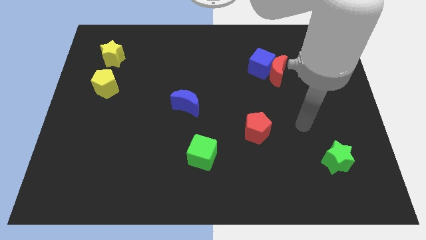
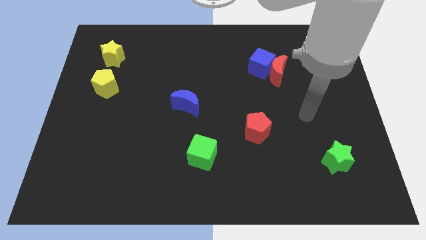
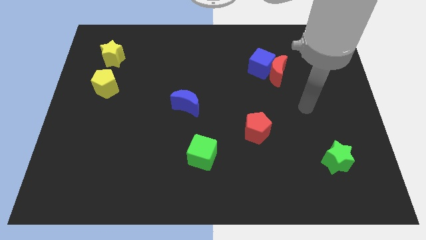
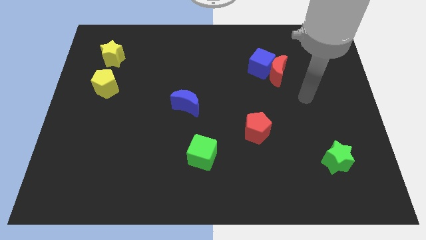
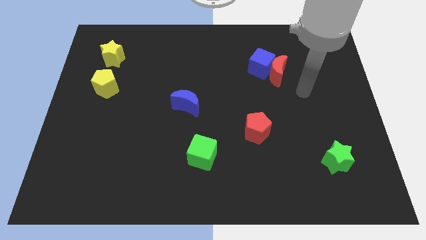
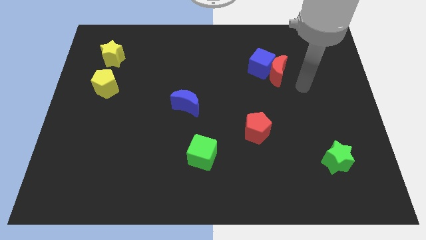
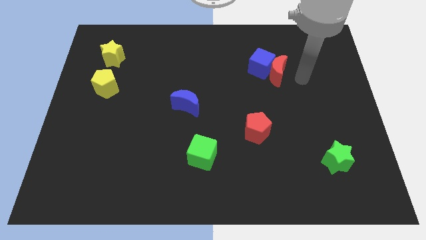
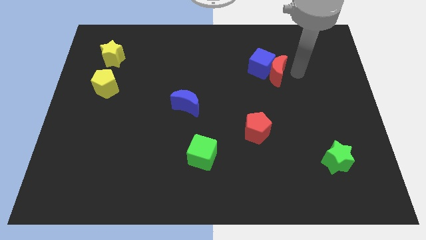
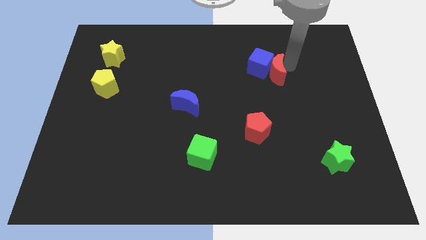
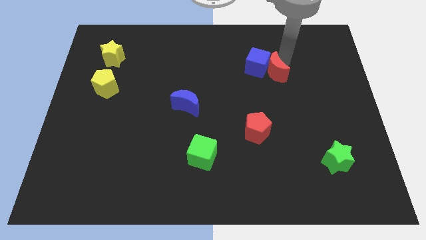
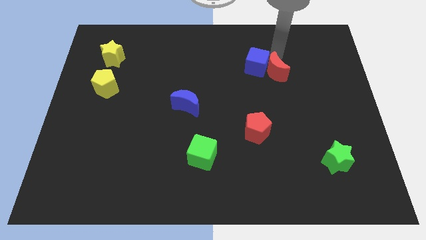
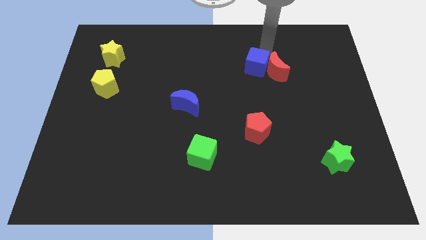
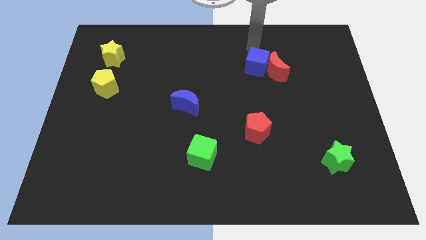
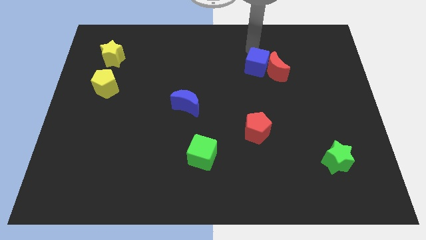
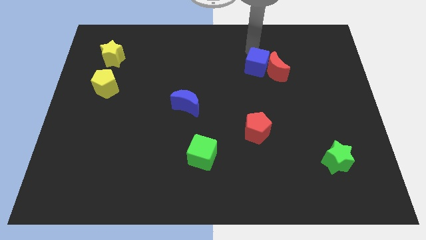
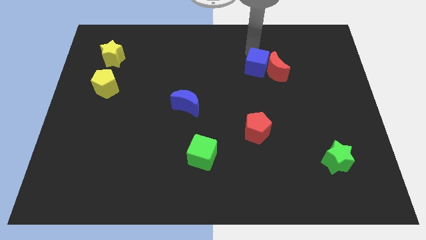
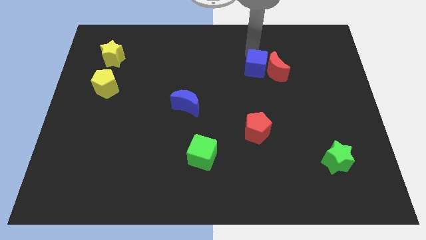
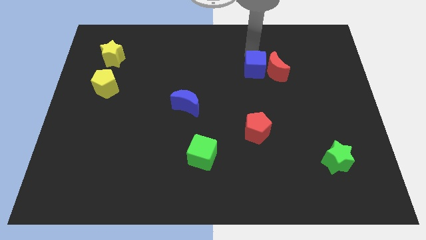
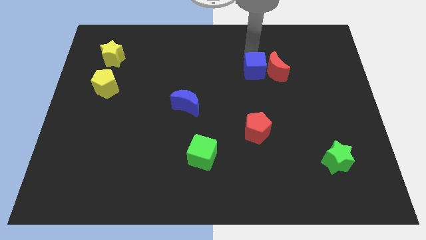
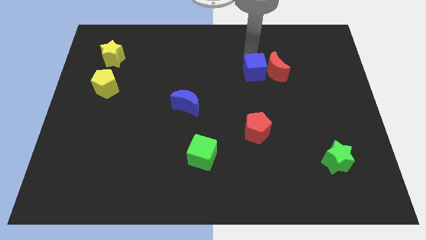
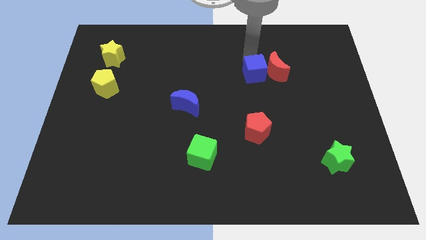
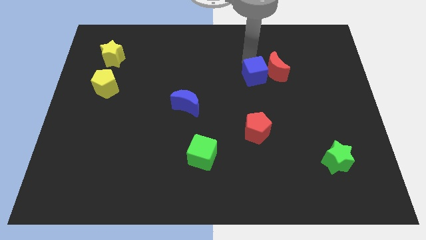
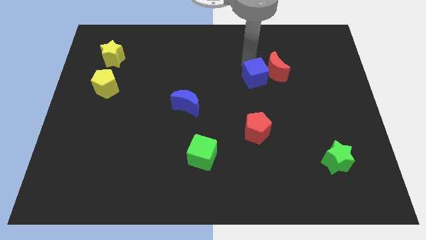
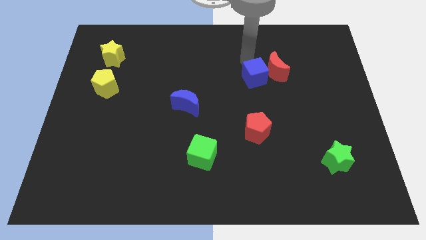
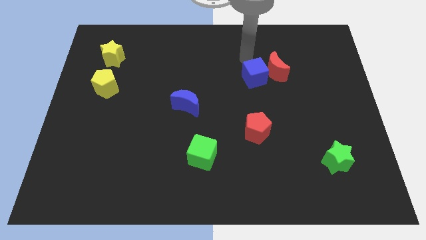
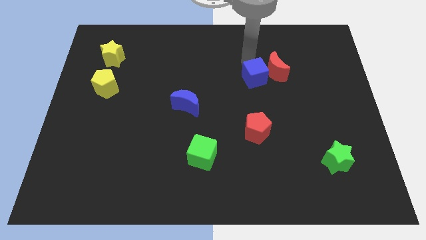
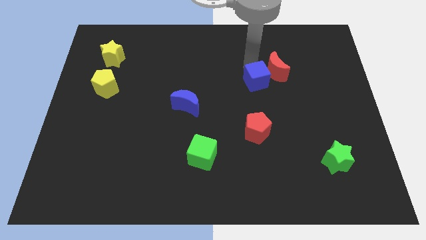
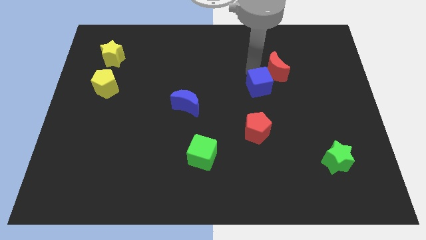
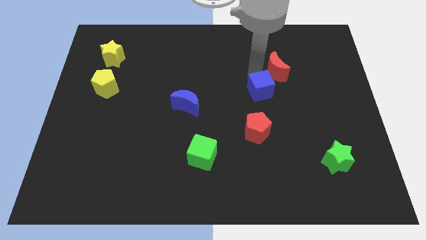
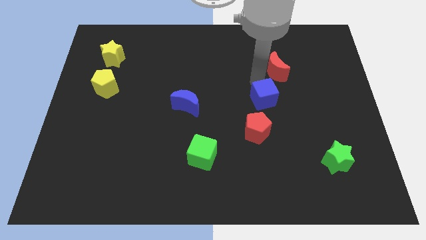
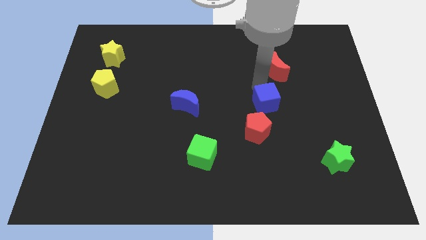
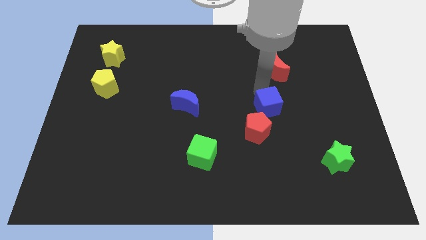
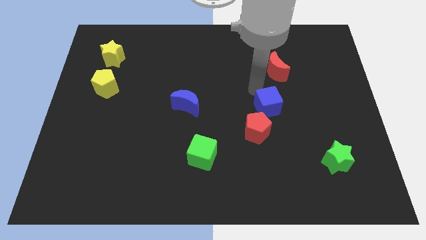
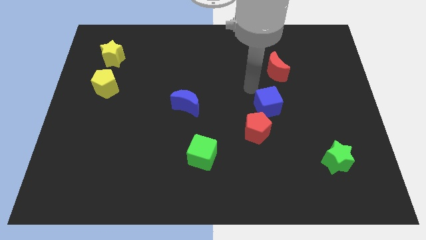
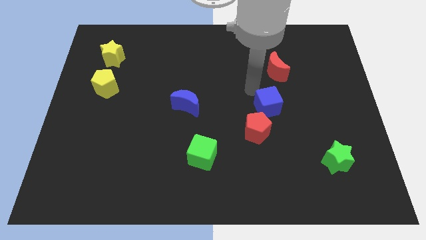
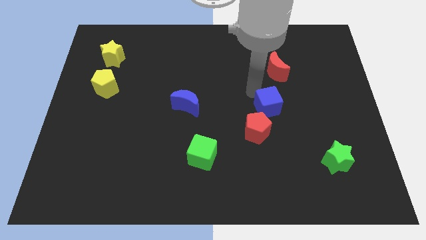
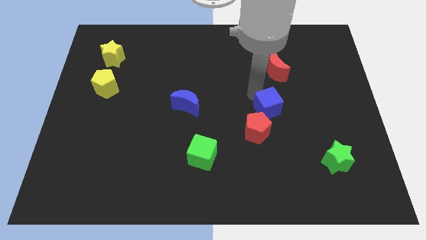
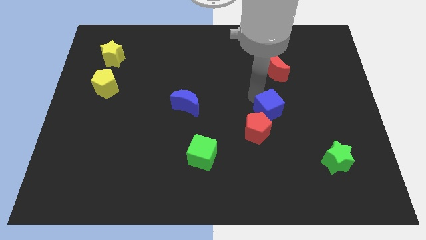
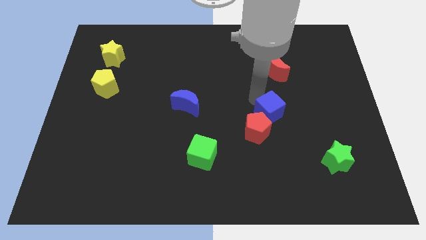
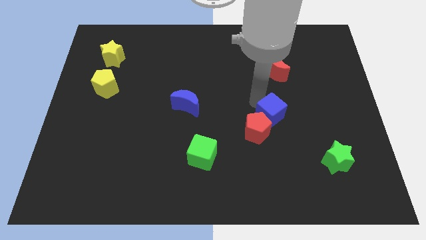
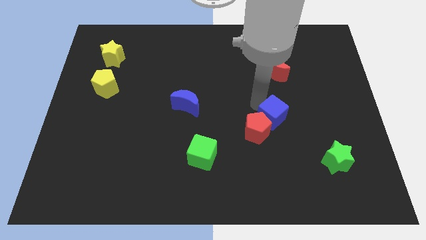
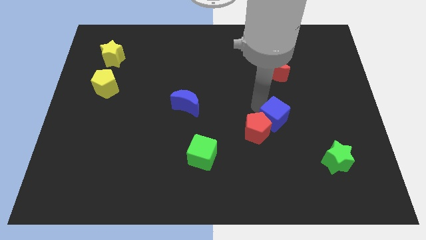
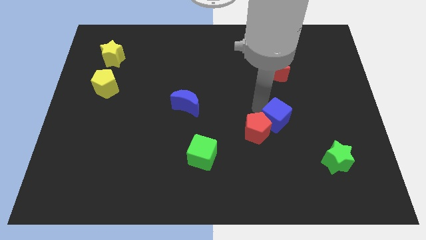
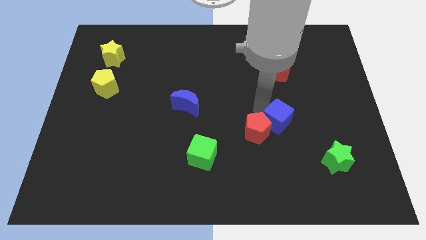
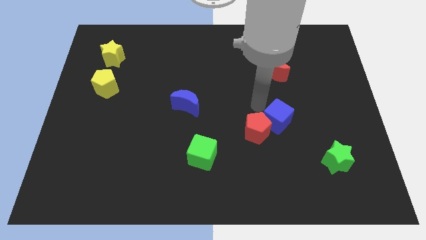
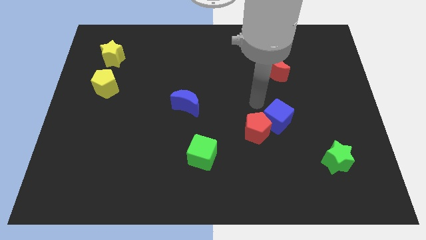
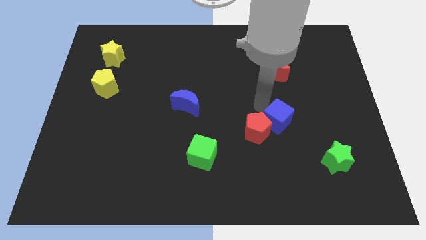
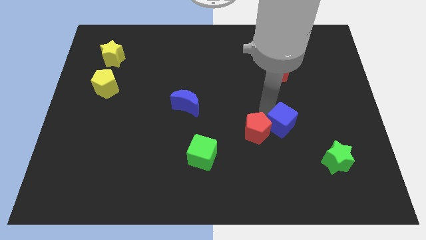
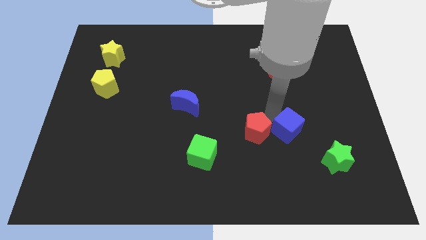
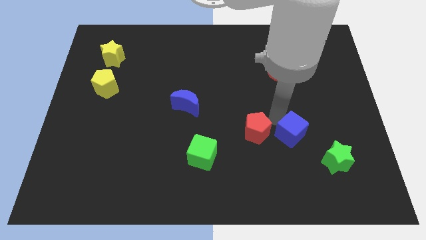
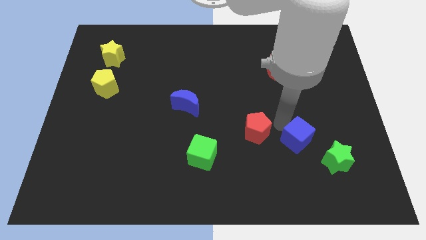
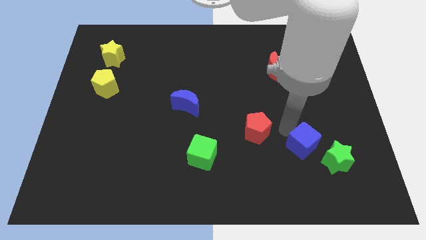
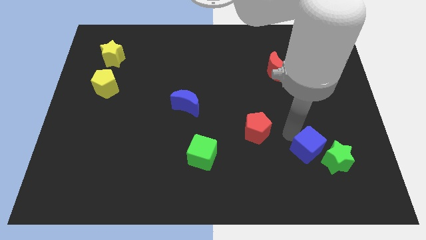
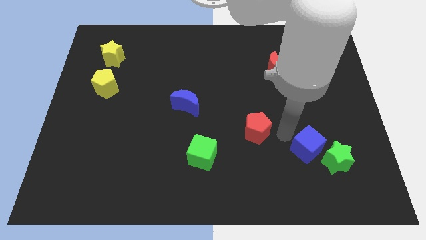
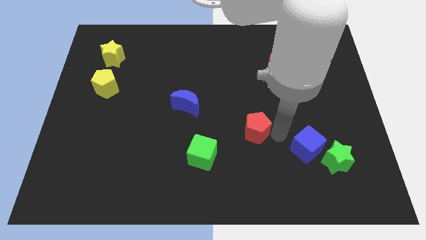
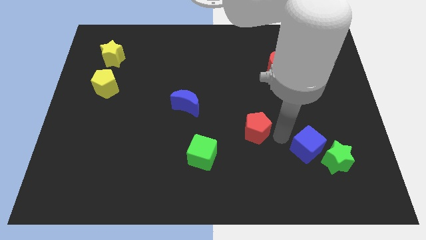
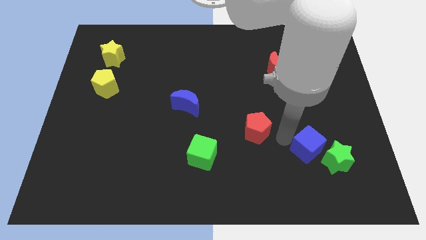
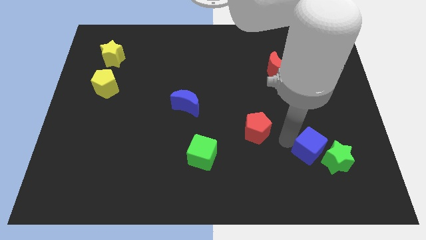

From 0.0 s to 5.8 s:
put the blue cube to the green star

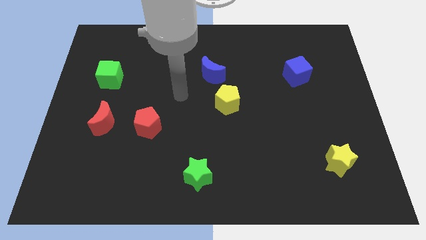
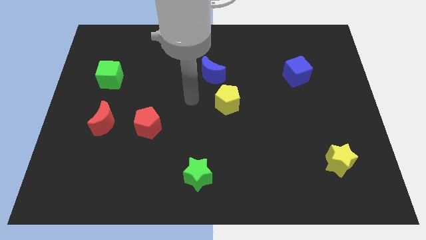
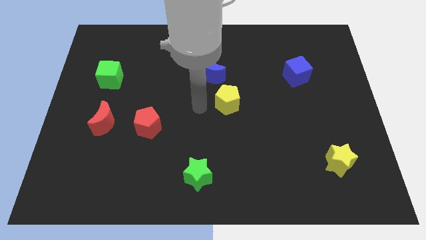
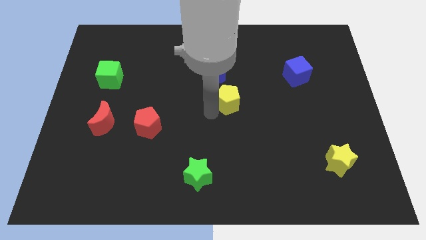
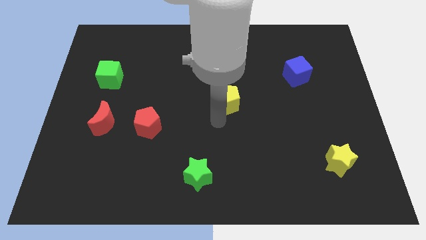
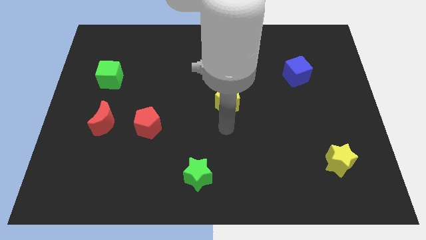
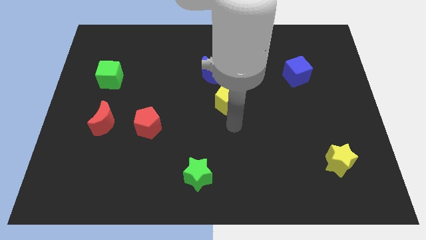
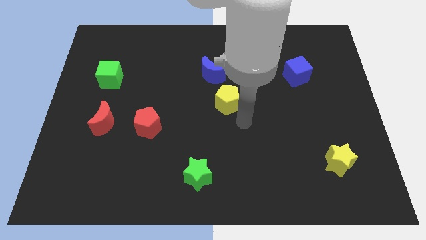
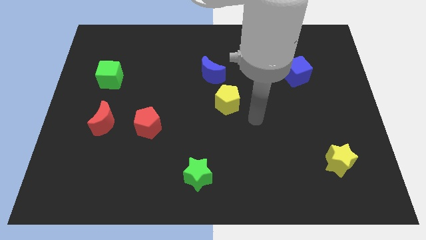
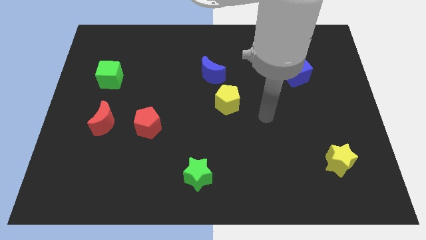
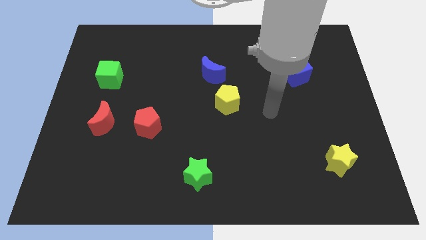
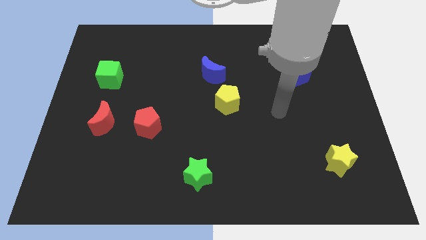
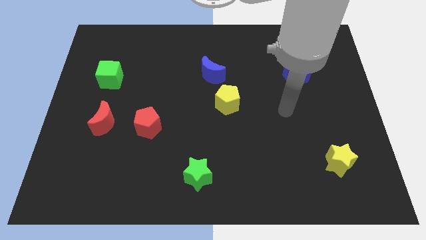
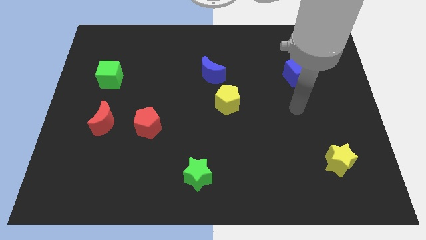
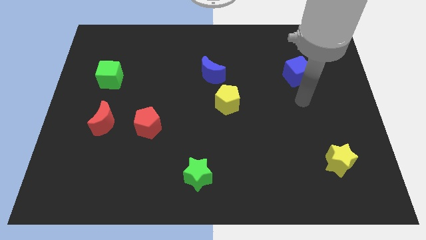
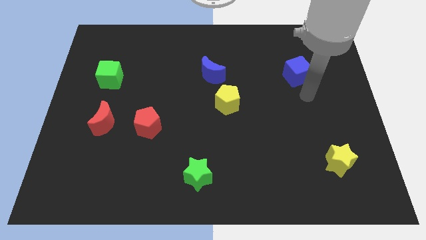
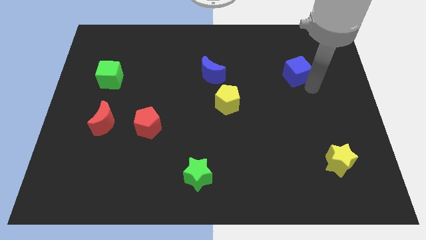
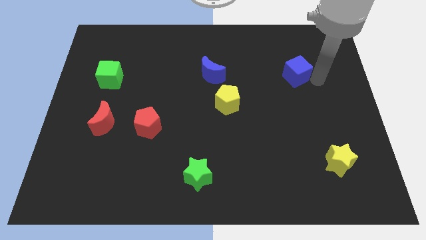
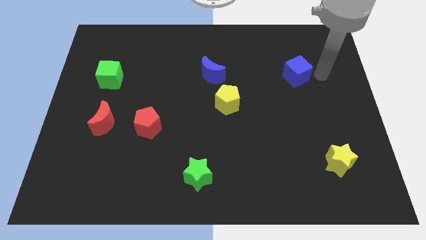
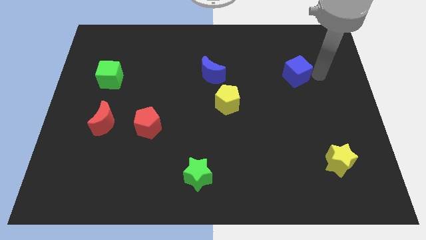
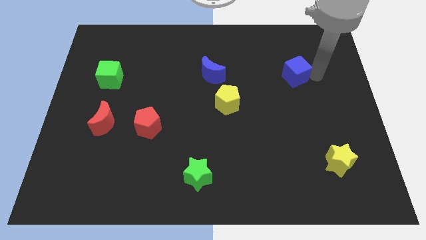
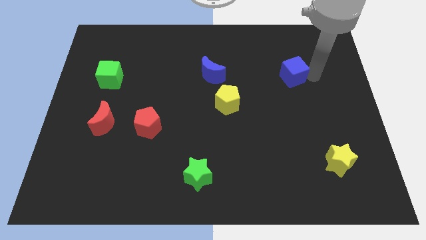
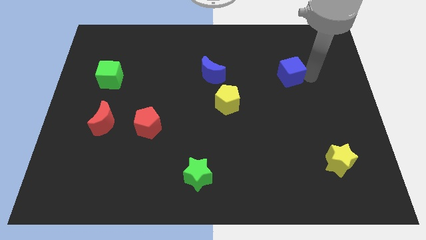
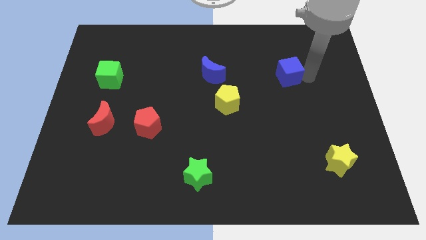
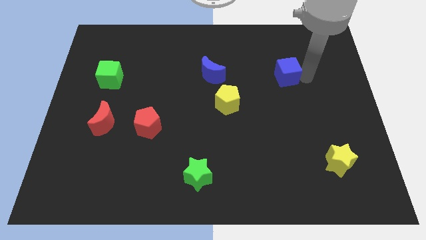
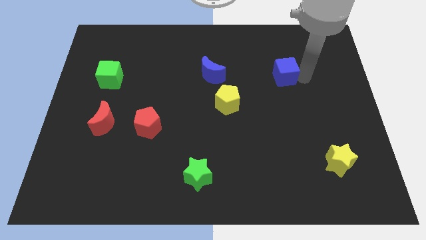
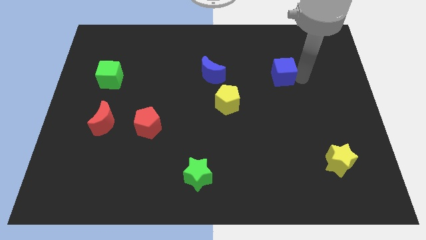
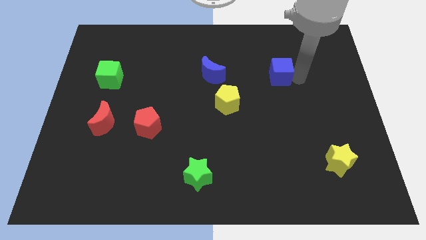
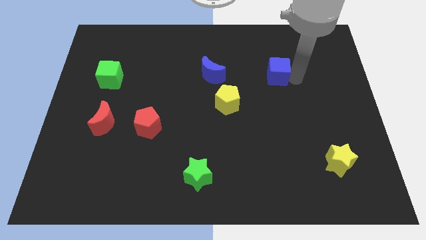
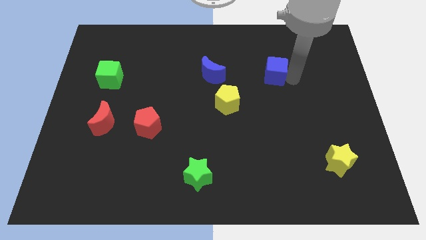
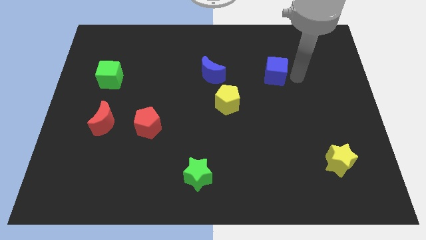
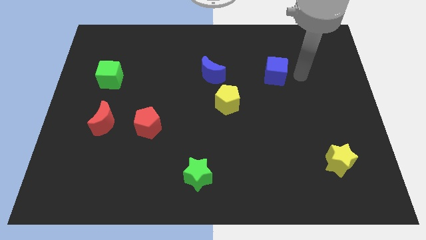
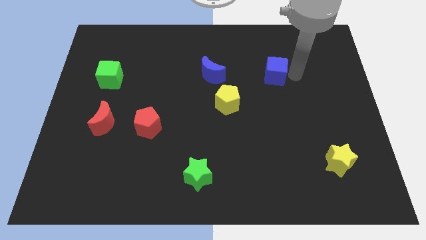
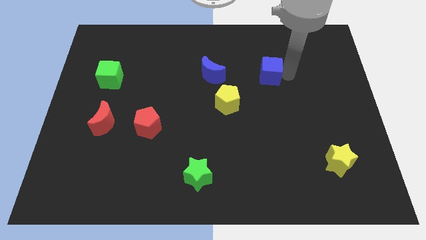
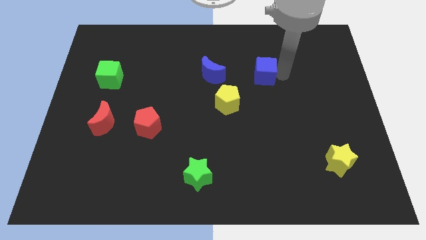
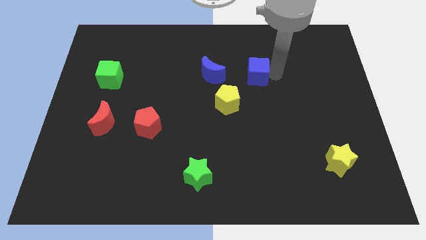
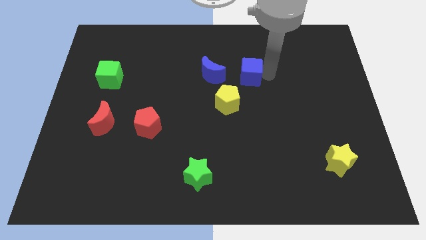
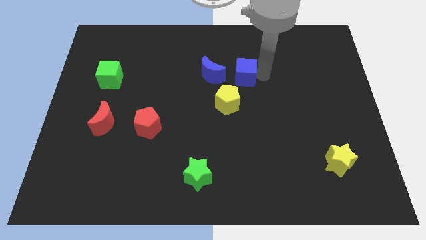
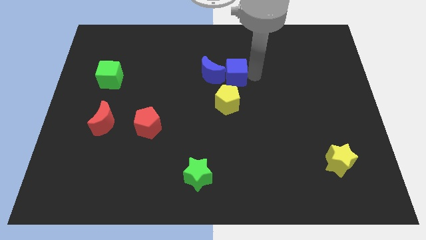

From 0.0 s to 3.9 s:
push the blue cube towards the blue moon
